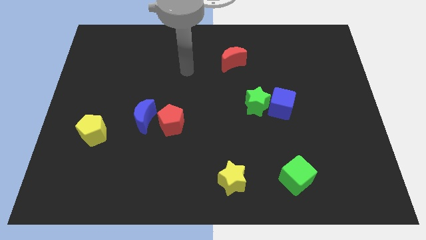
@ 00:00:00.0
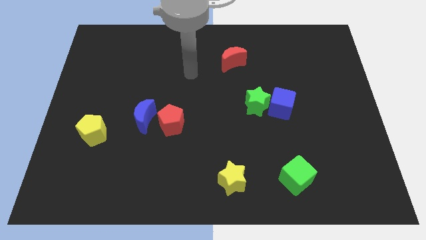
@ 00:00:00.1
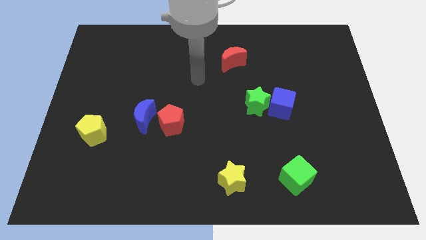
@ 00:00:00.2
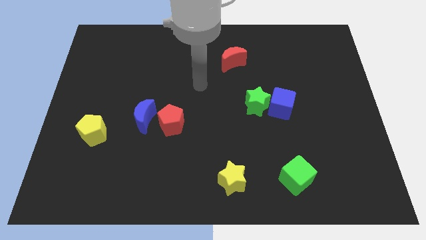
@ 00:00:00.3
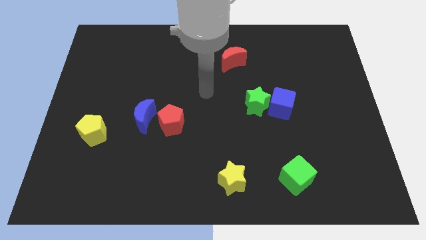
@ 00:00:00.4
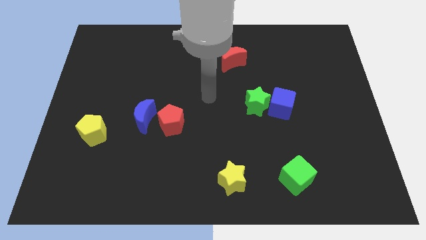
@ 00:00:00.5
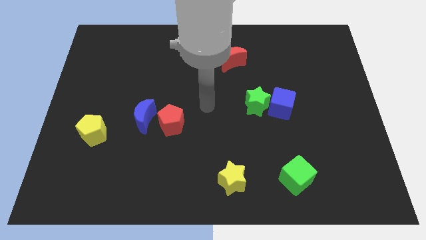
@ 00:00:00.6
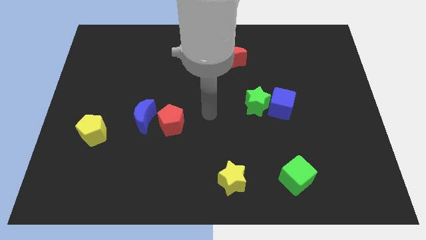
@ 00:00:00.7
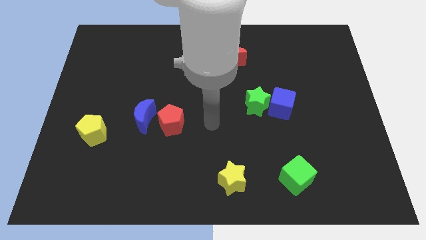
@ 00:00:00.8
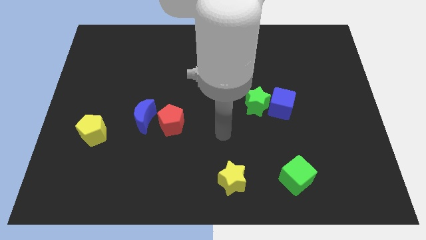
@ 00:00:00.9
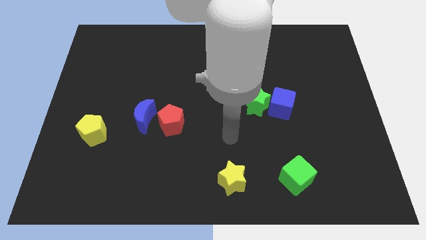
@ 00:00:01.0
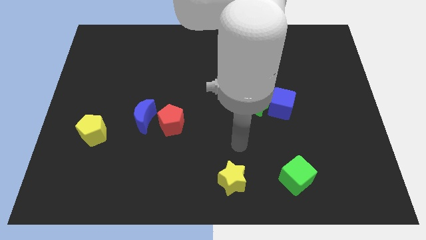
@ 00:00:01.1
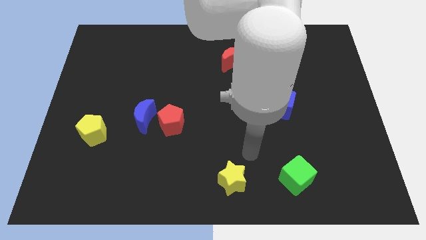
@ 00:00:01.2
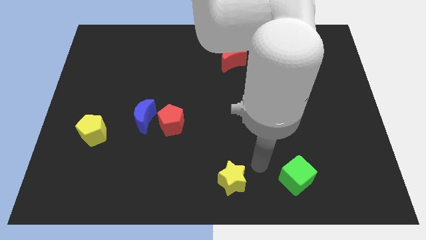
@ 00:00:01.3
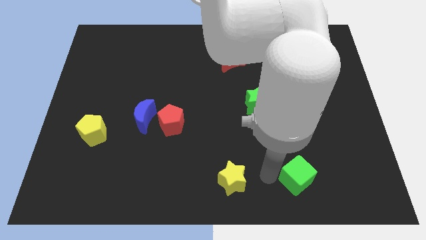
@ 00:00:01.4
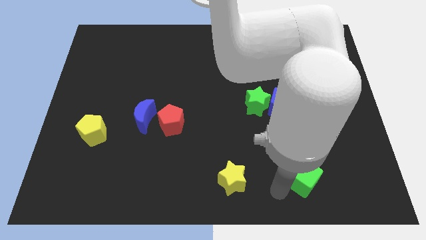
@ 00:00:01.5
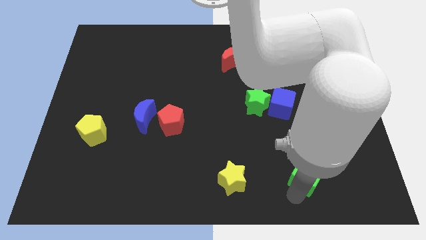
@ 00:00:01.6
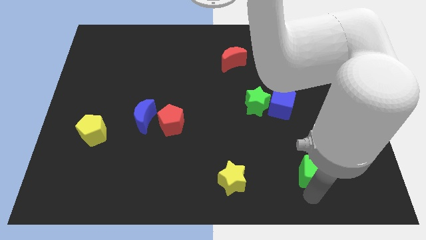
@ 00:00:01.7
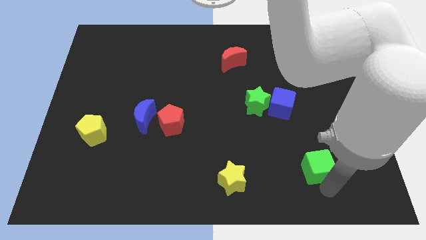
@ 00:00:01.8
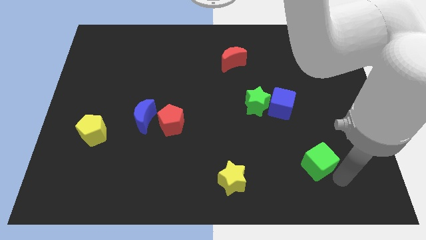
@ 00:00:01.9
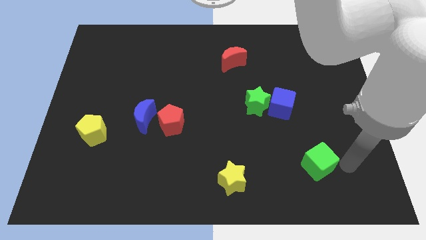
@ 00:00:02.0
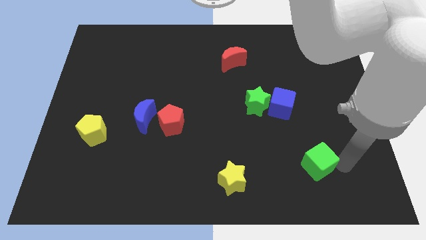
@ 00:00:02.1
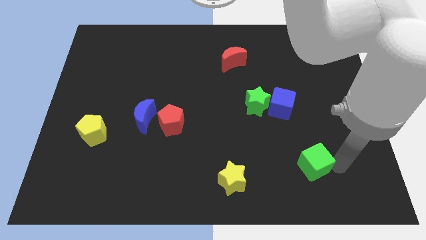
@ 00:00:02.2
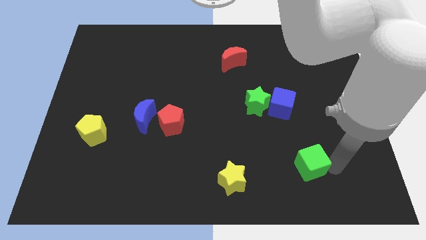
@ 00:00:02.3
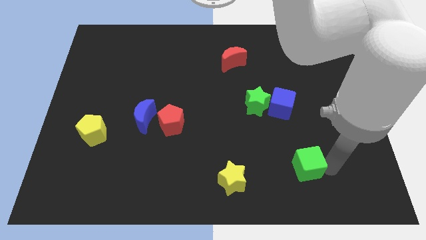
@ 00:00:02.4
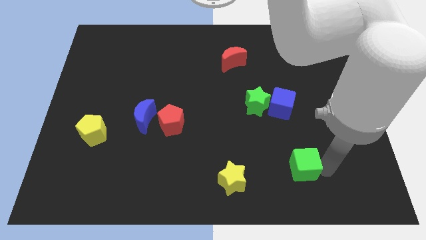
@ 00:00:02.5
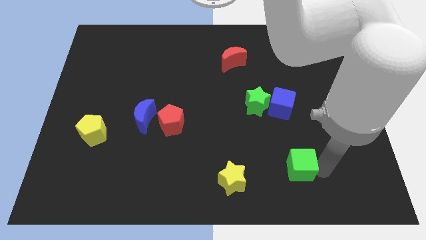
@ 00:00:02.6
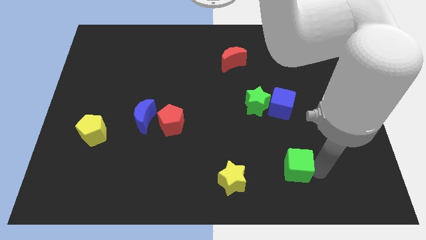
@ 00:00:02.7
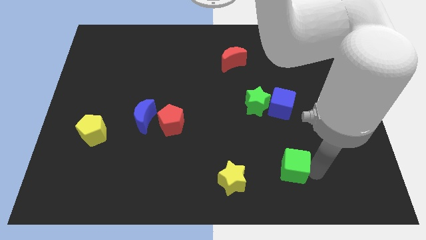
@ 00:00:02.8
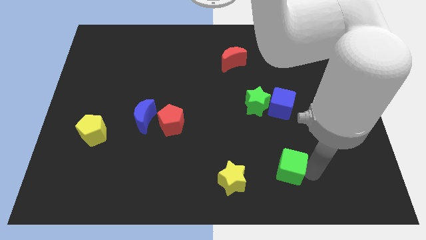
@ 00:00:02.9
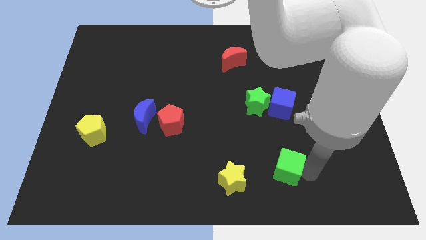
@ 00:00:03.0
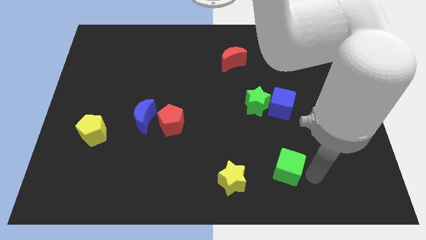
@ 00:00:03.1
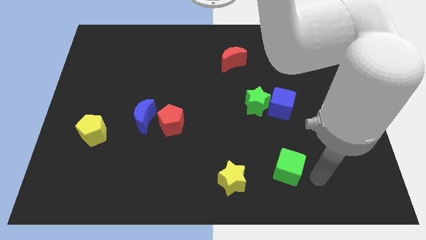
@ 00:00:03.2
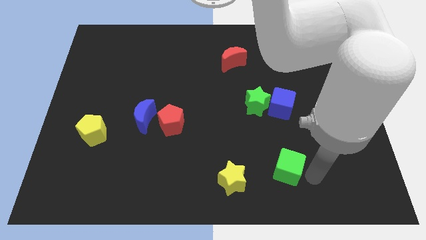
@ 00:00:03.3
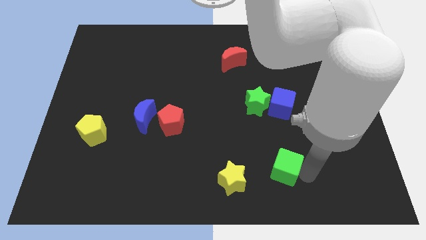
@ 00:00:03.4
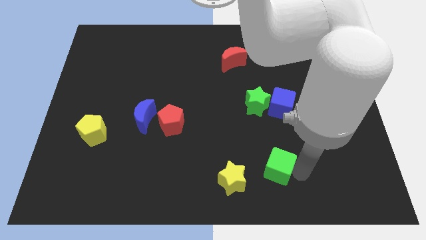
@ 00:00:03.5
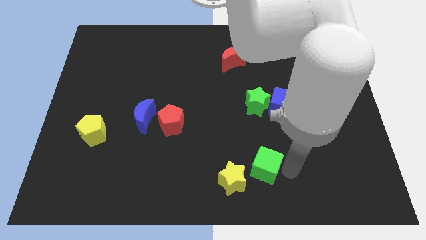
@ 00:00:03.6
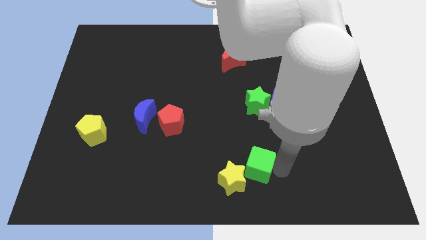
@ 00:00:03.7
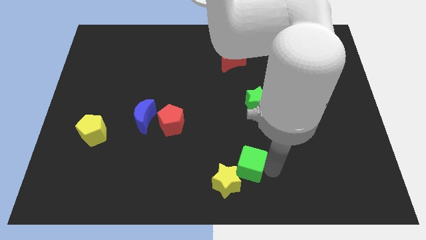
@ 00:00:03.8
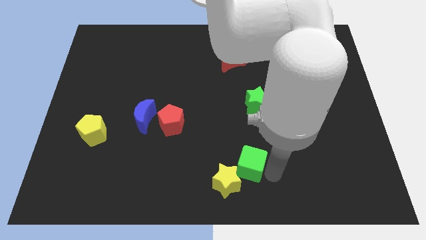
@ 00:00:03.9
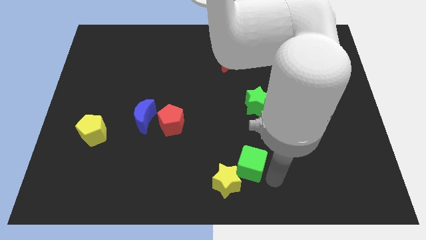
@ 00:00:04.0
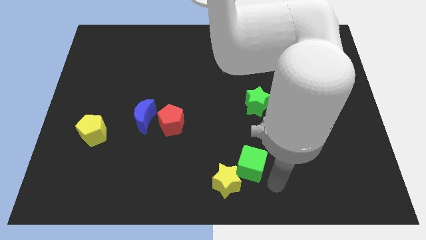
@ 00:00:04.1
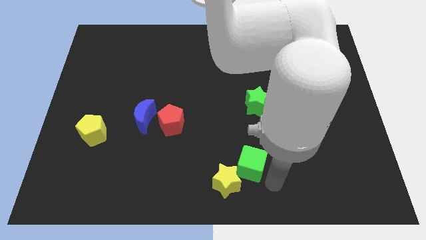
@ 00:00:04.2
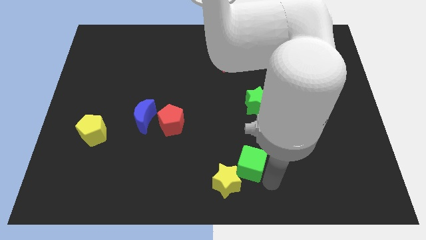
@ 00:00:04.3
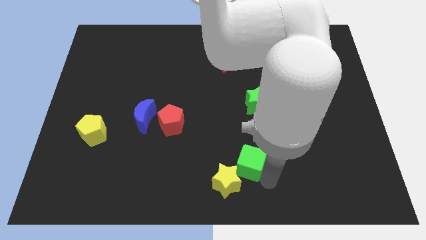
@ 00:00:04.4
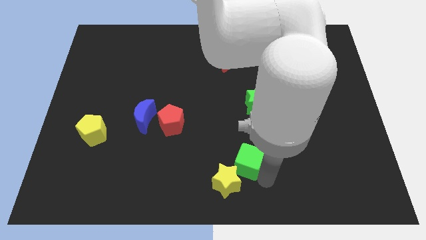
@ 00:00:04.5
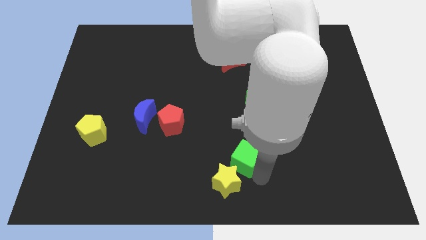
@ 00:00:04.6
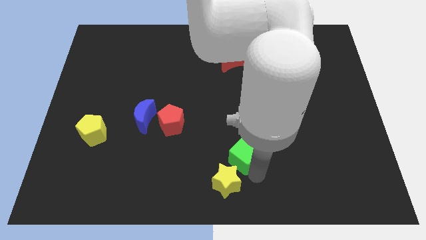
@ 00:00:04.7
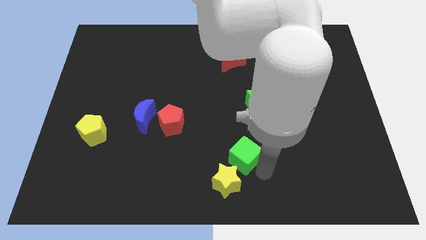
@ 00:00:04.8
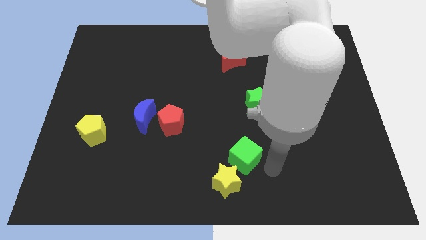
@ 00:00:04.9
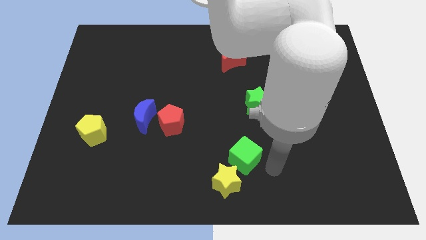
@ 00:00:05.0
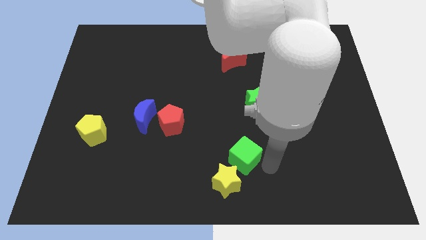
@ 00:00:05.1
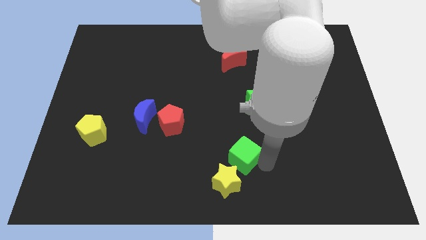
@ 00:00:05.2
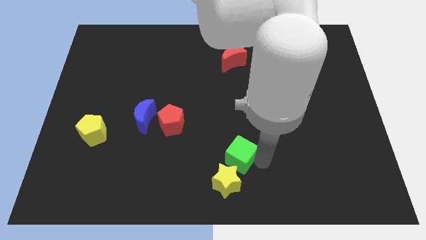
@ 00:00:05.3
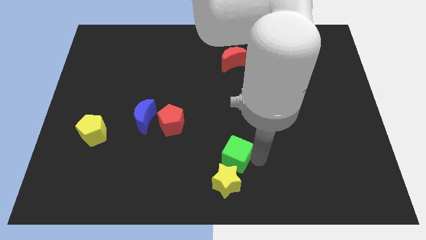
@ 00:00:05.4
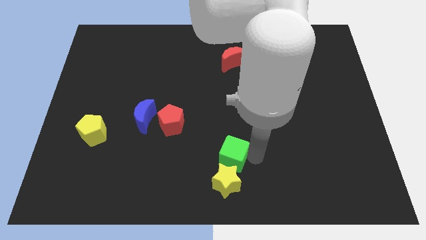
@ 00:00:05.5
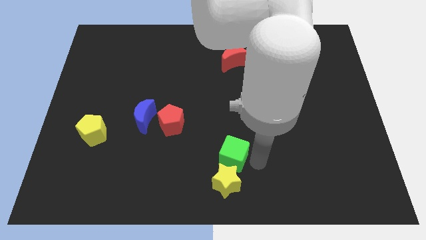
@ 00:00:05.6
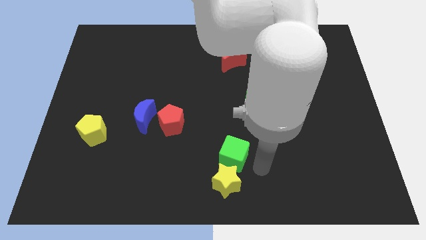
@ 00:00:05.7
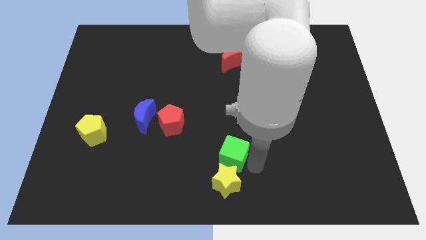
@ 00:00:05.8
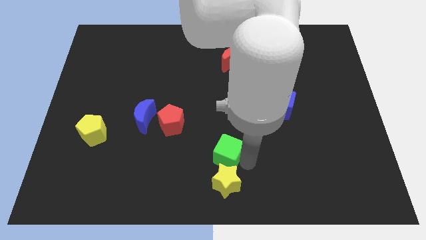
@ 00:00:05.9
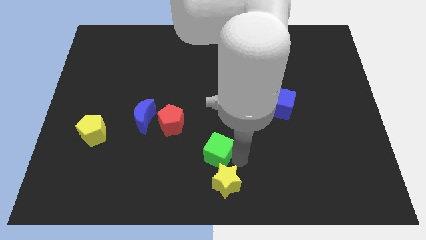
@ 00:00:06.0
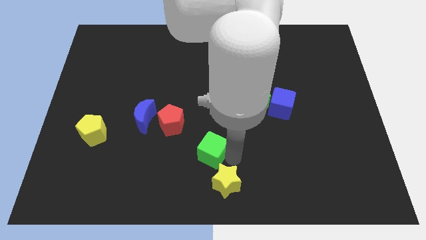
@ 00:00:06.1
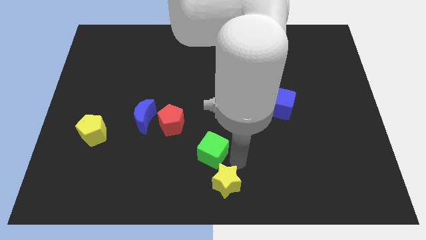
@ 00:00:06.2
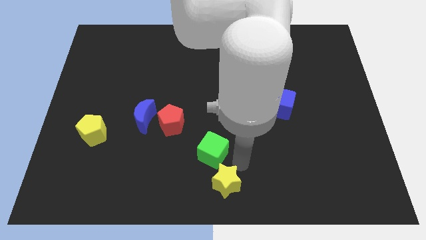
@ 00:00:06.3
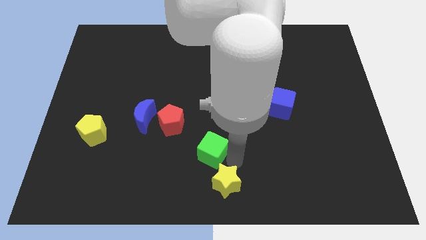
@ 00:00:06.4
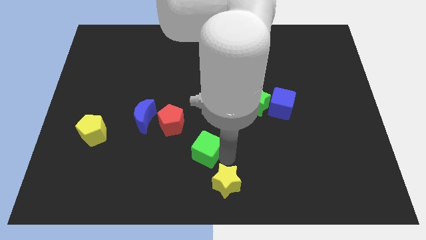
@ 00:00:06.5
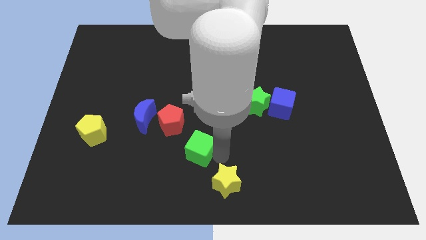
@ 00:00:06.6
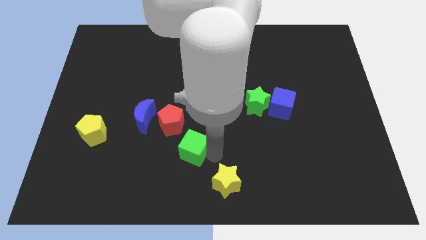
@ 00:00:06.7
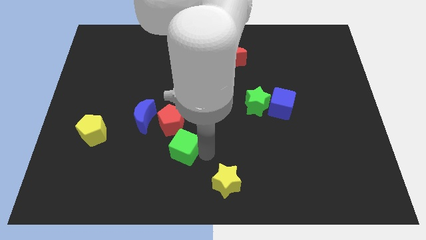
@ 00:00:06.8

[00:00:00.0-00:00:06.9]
move the green cube to the bottom right side of the blue moon
